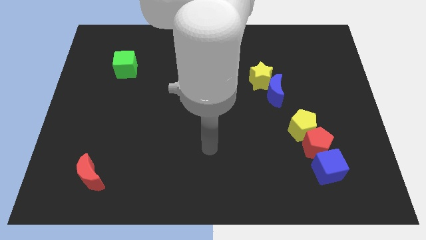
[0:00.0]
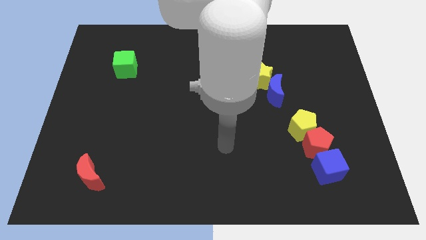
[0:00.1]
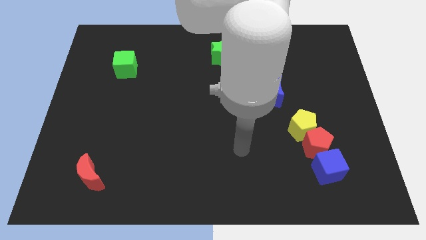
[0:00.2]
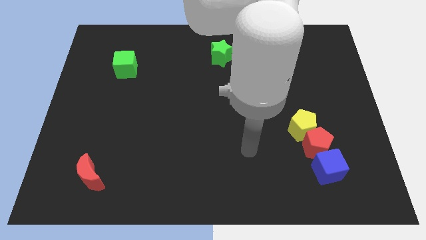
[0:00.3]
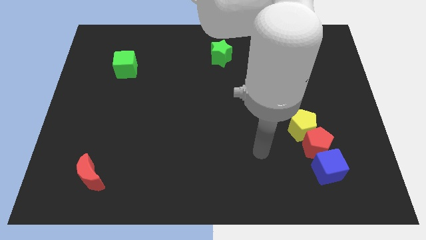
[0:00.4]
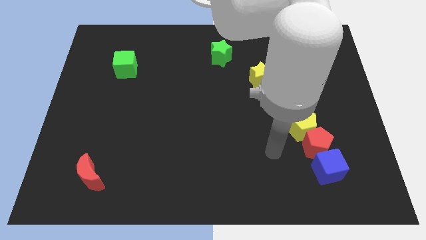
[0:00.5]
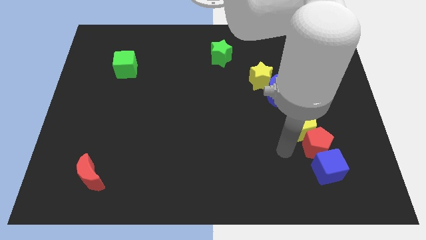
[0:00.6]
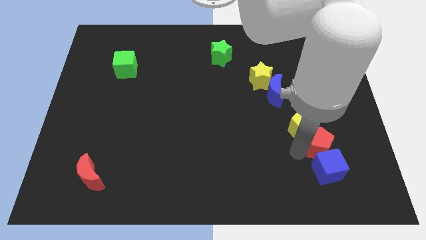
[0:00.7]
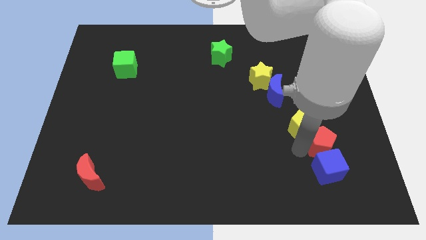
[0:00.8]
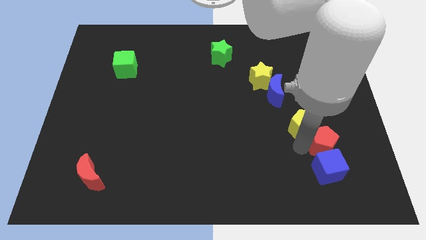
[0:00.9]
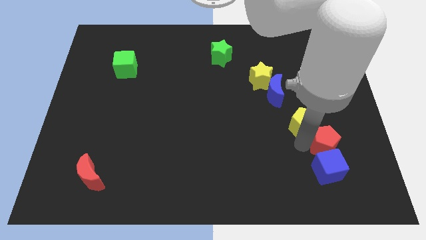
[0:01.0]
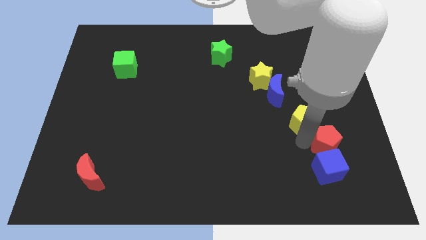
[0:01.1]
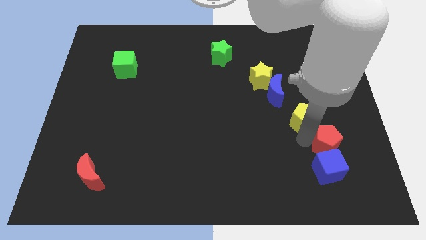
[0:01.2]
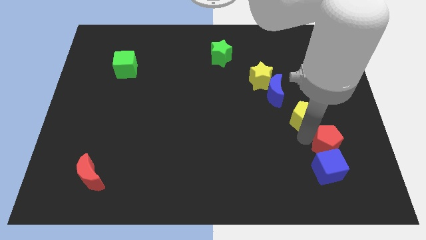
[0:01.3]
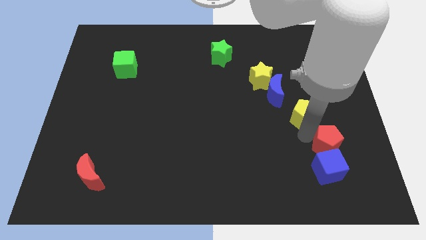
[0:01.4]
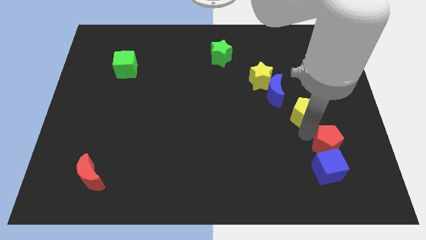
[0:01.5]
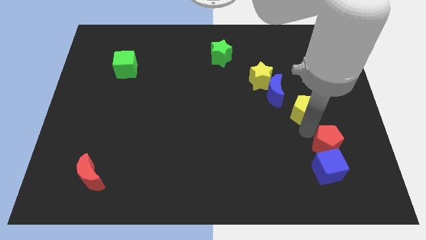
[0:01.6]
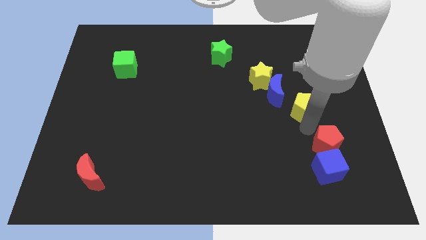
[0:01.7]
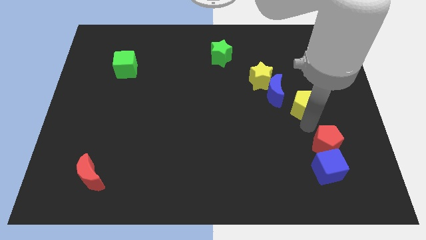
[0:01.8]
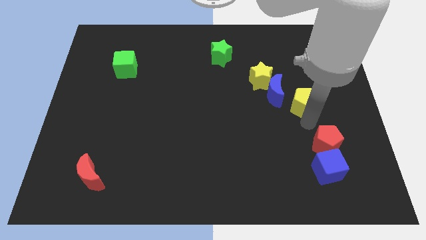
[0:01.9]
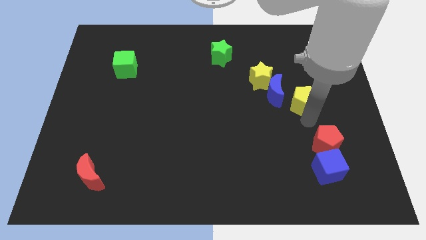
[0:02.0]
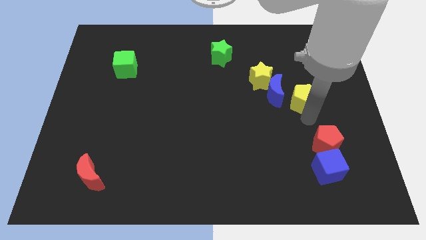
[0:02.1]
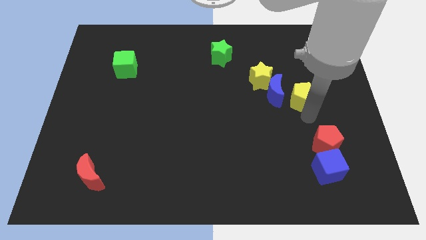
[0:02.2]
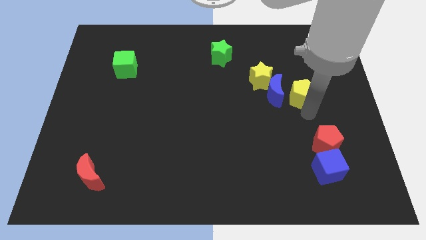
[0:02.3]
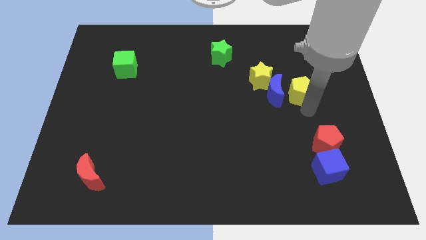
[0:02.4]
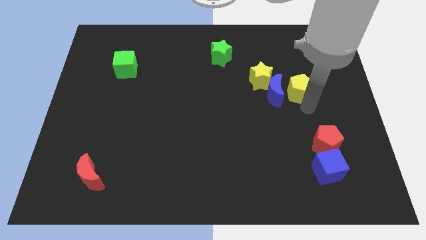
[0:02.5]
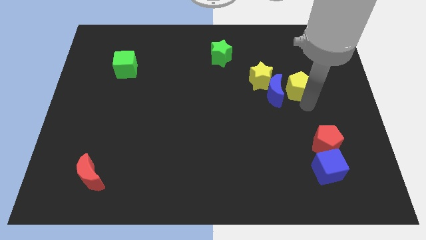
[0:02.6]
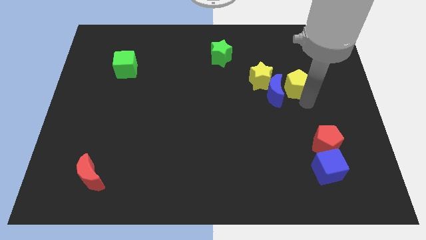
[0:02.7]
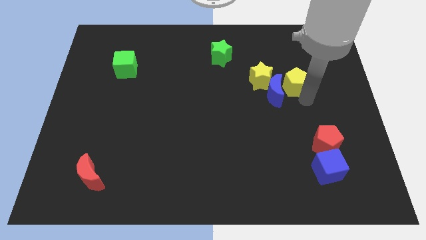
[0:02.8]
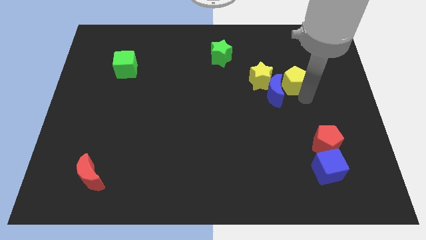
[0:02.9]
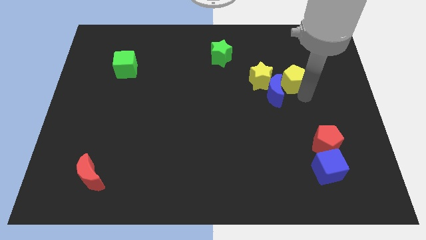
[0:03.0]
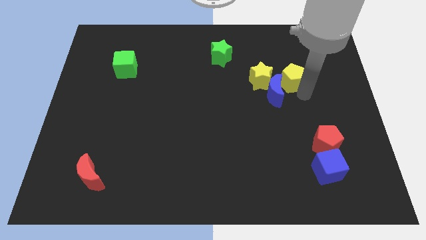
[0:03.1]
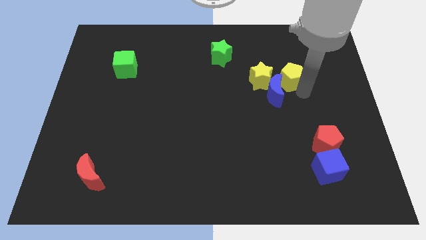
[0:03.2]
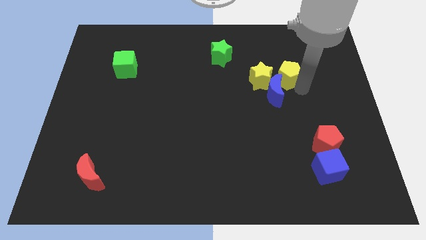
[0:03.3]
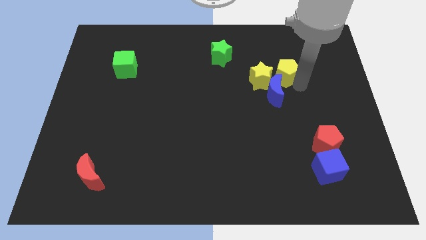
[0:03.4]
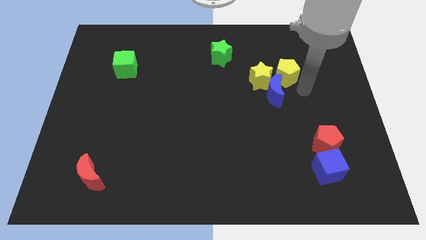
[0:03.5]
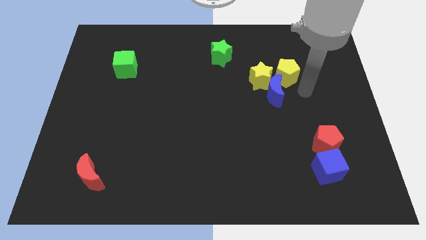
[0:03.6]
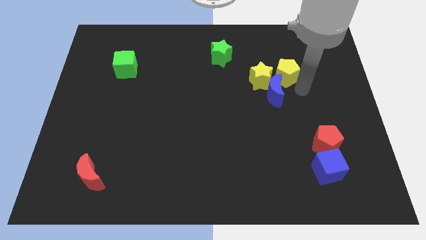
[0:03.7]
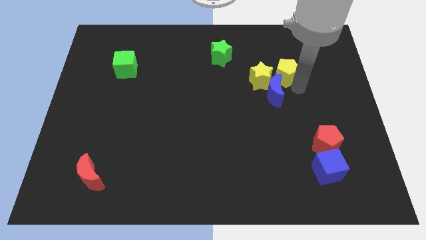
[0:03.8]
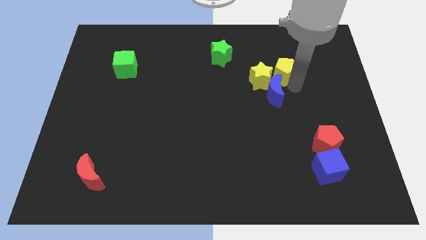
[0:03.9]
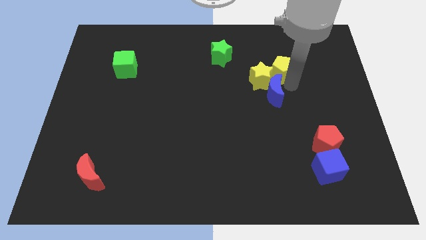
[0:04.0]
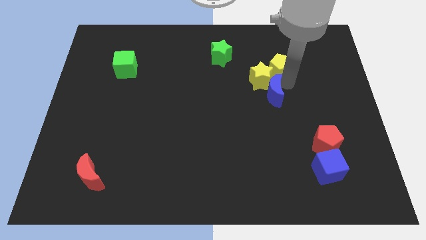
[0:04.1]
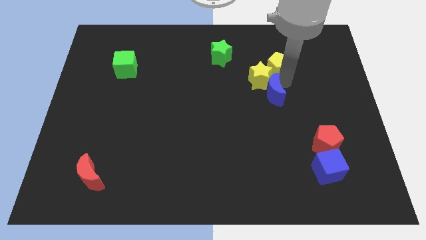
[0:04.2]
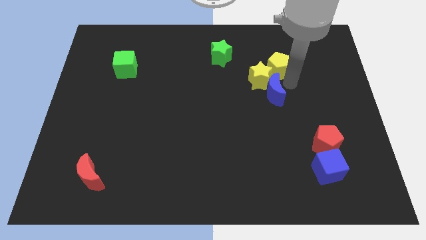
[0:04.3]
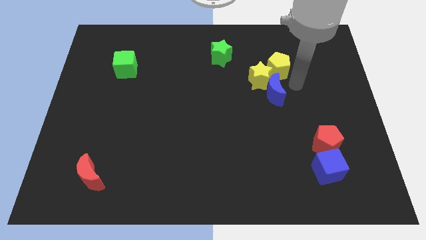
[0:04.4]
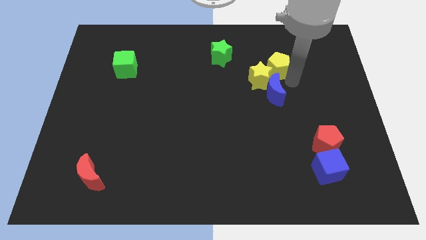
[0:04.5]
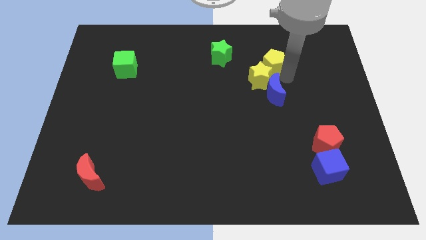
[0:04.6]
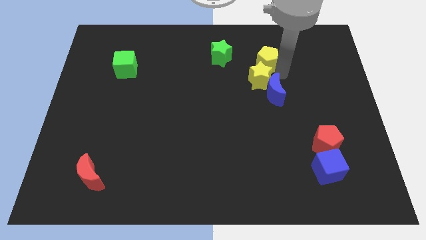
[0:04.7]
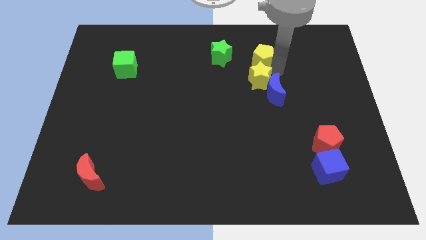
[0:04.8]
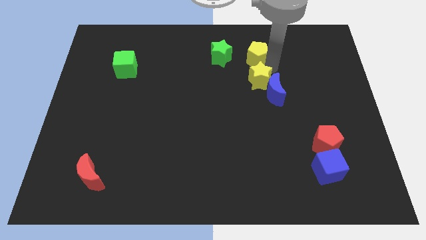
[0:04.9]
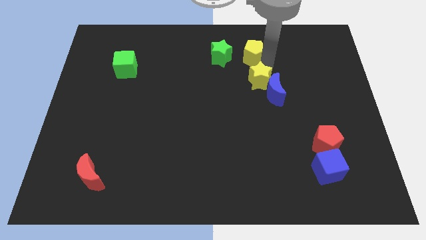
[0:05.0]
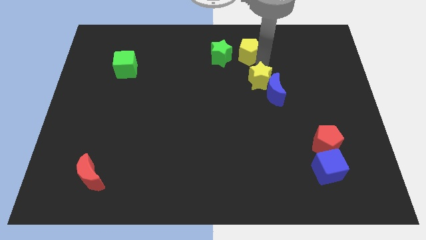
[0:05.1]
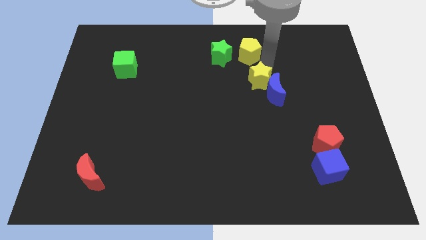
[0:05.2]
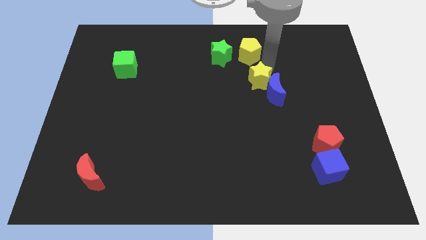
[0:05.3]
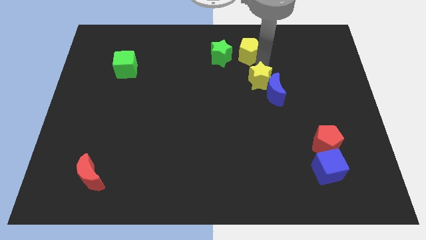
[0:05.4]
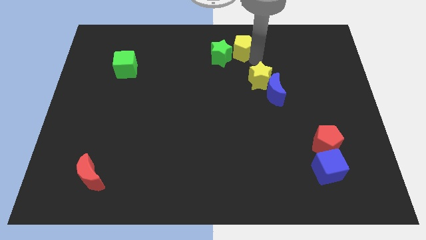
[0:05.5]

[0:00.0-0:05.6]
push the yellow pentagon to the towards your base

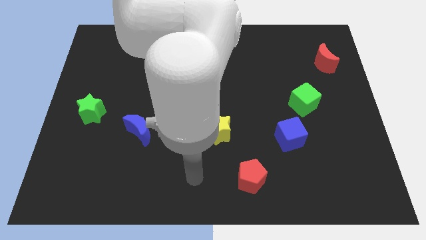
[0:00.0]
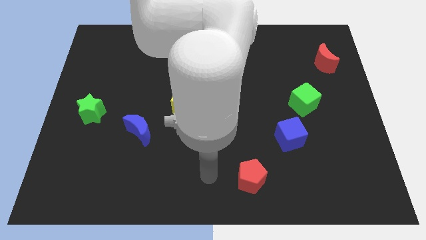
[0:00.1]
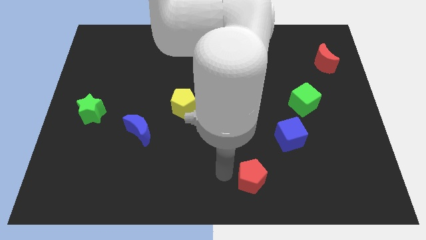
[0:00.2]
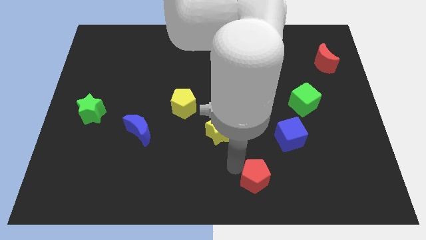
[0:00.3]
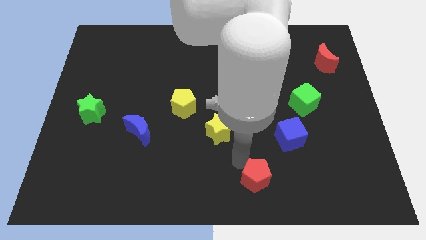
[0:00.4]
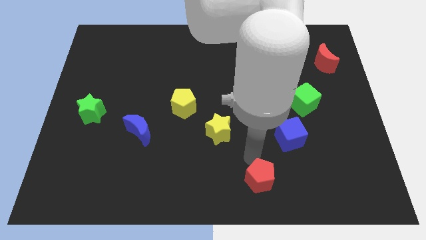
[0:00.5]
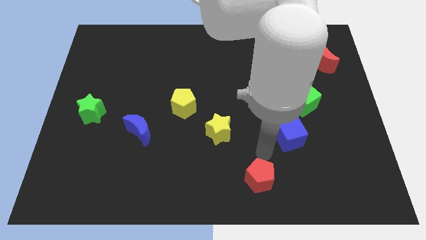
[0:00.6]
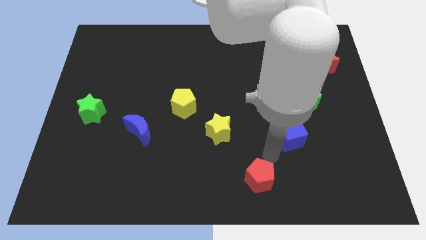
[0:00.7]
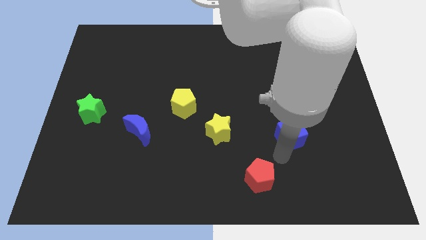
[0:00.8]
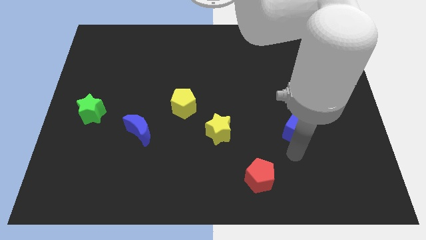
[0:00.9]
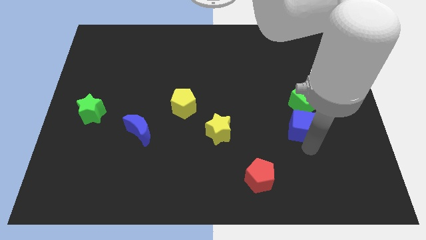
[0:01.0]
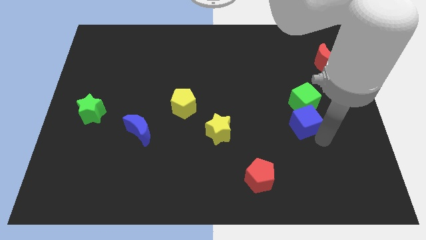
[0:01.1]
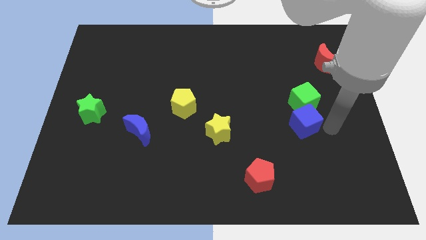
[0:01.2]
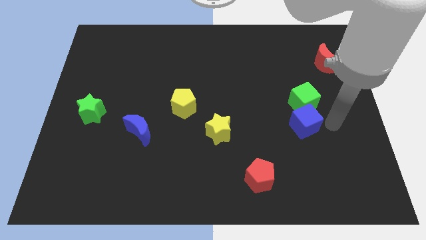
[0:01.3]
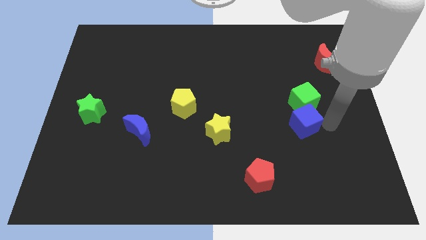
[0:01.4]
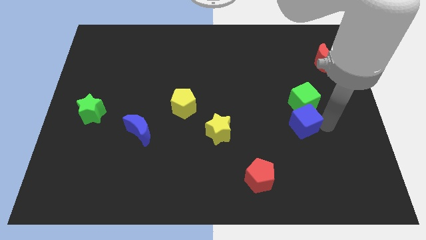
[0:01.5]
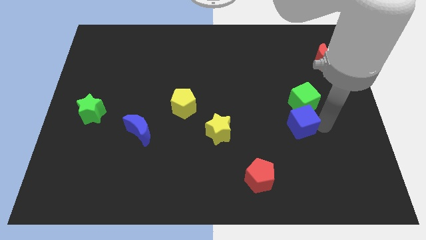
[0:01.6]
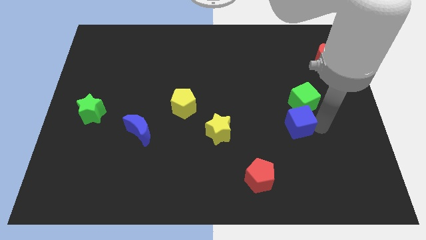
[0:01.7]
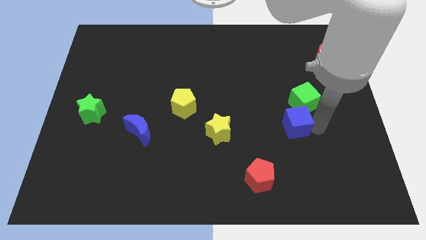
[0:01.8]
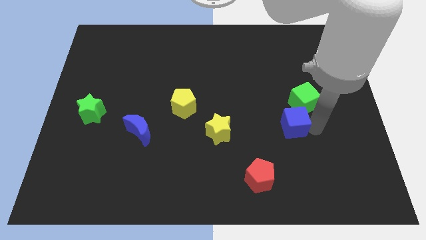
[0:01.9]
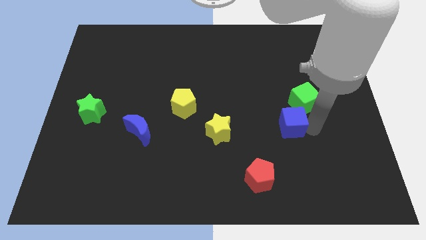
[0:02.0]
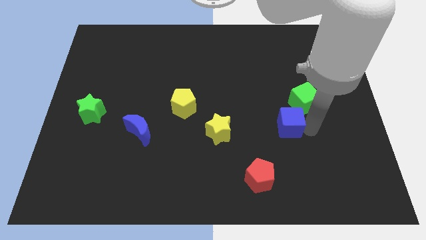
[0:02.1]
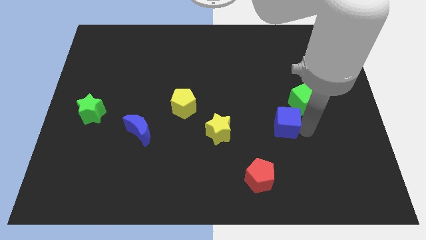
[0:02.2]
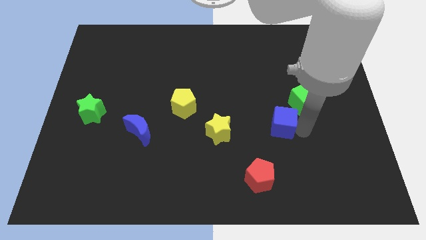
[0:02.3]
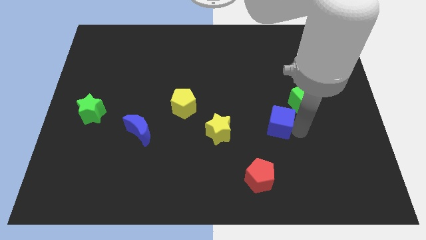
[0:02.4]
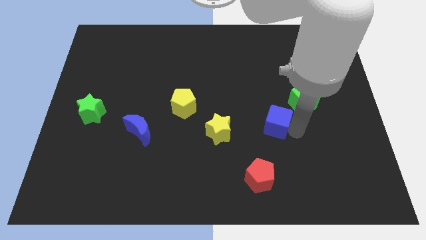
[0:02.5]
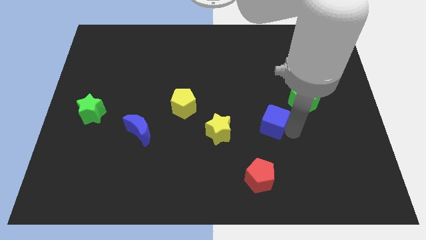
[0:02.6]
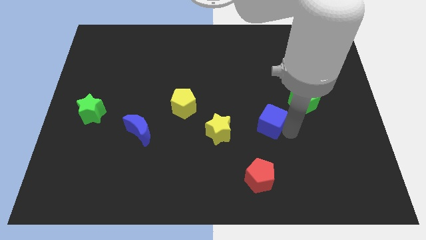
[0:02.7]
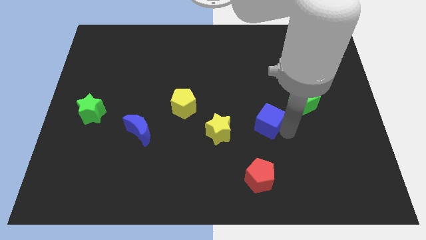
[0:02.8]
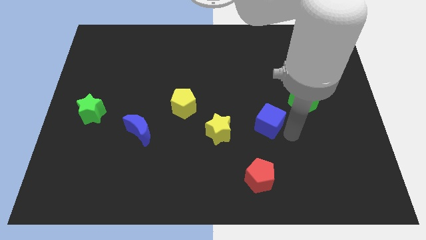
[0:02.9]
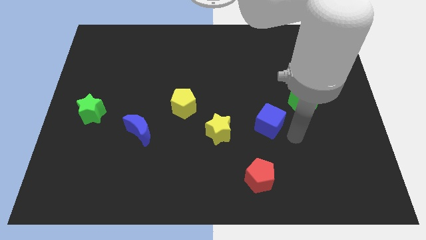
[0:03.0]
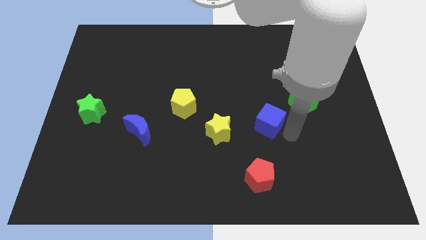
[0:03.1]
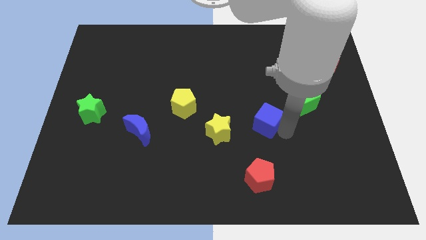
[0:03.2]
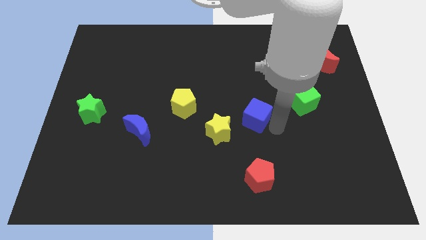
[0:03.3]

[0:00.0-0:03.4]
slide the blue cube to the center of the board
